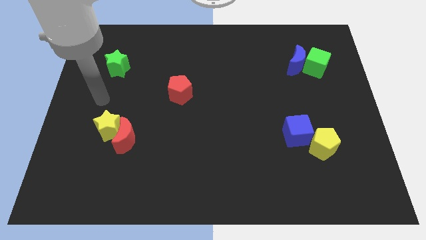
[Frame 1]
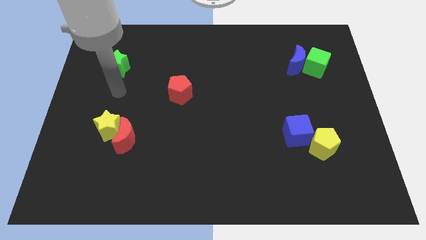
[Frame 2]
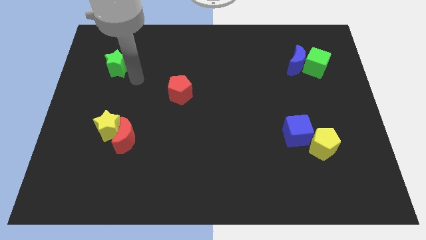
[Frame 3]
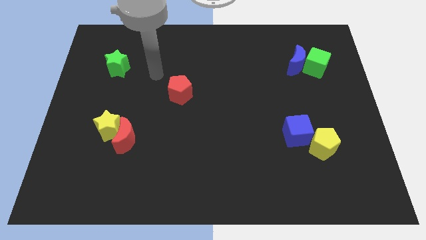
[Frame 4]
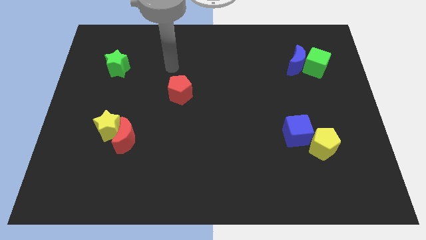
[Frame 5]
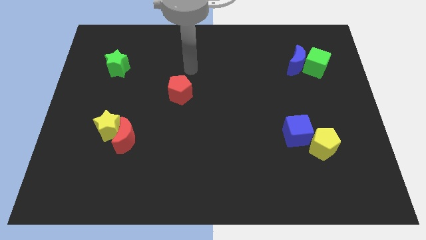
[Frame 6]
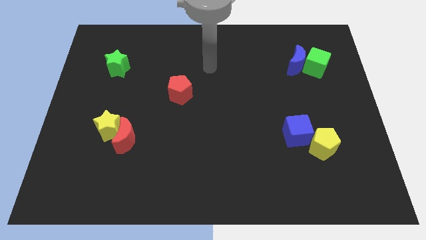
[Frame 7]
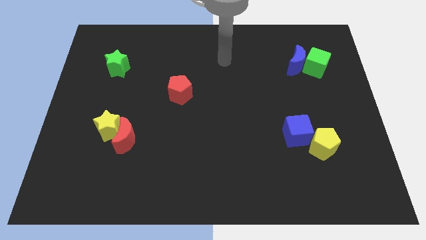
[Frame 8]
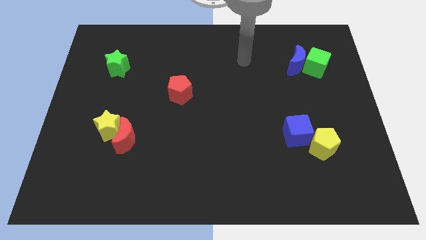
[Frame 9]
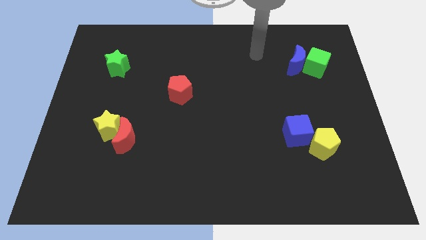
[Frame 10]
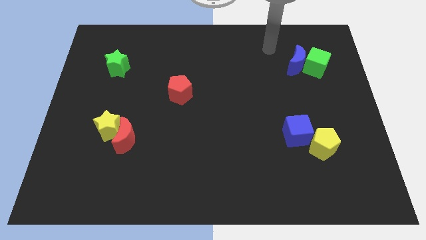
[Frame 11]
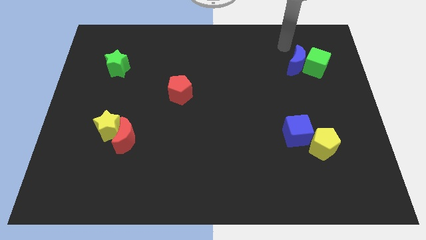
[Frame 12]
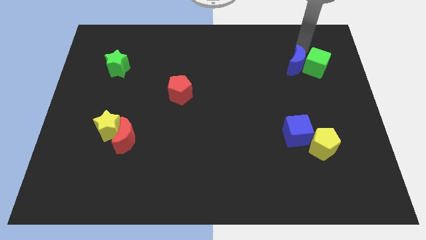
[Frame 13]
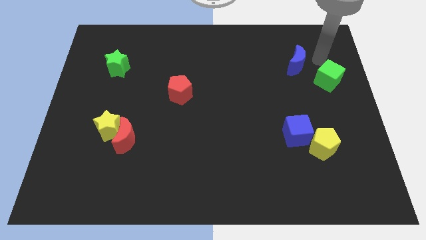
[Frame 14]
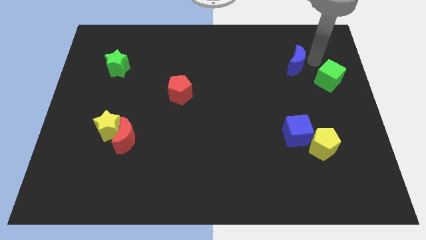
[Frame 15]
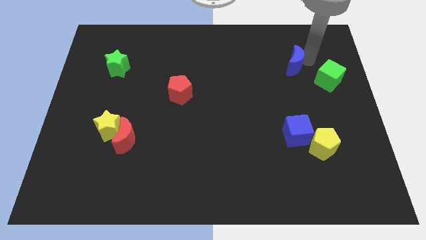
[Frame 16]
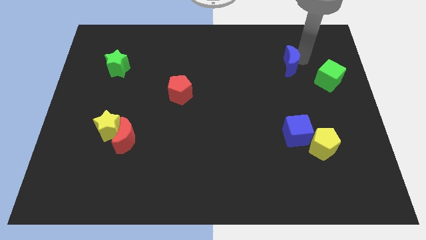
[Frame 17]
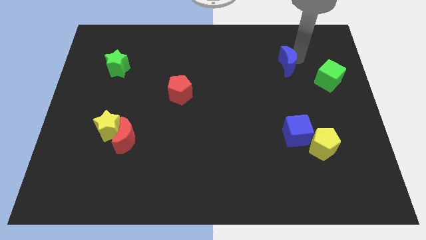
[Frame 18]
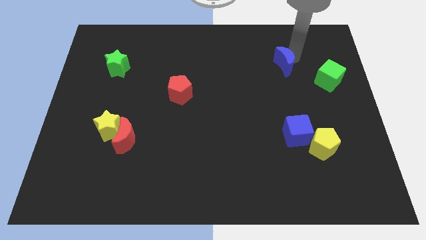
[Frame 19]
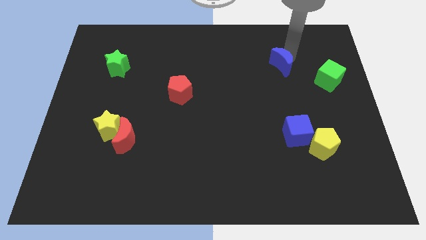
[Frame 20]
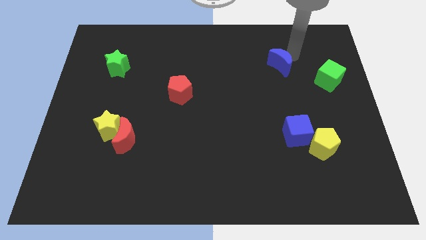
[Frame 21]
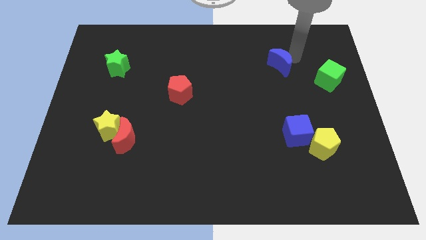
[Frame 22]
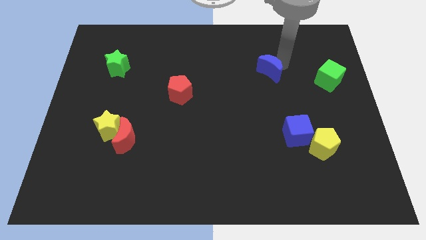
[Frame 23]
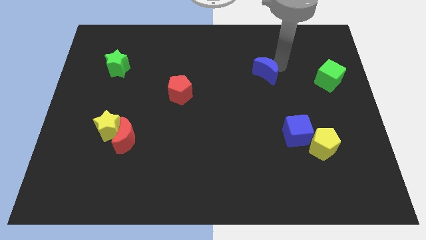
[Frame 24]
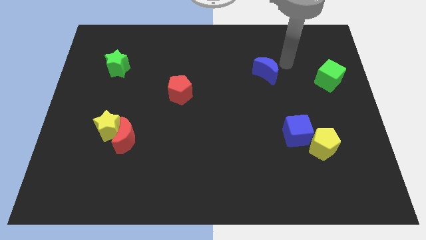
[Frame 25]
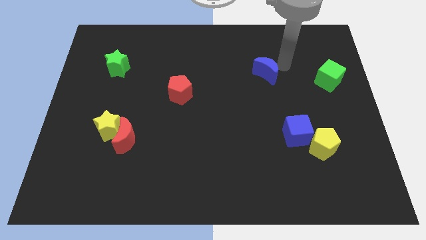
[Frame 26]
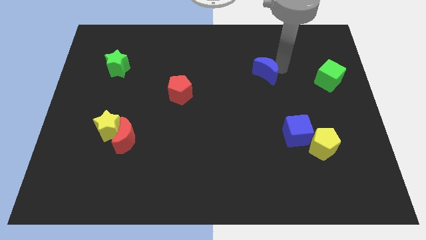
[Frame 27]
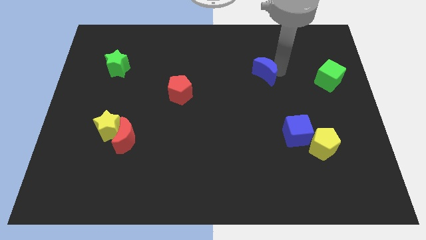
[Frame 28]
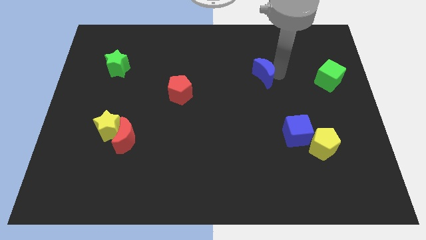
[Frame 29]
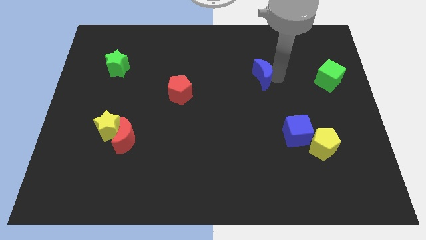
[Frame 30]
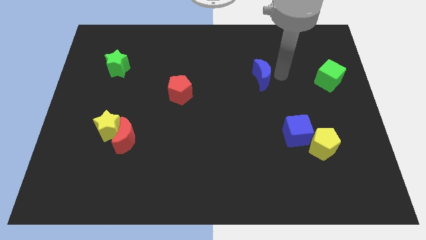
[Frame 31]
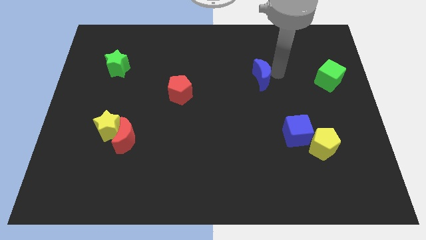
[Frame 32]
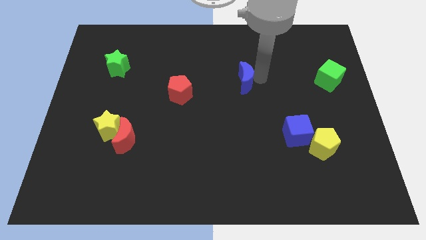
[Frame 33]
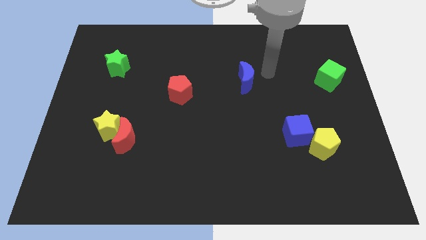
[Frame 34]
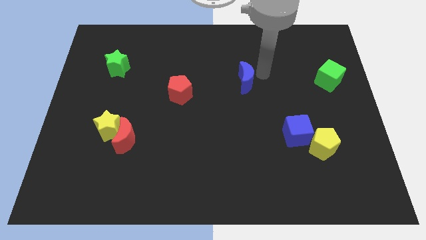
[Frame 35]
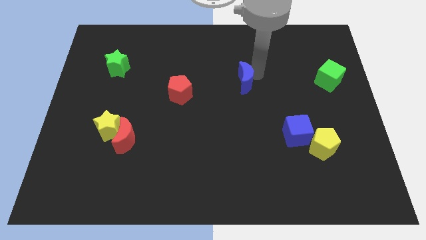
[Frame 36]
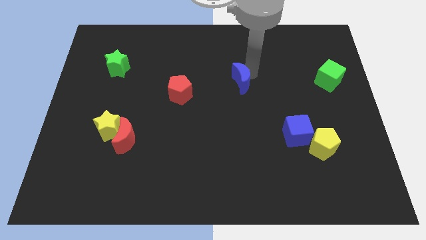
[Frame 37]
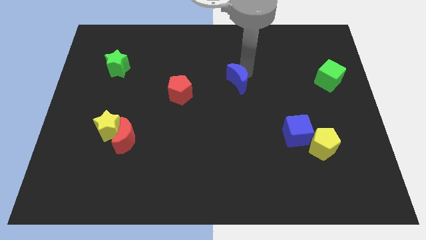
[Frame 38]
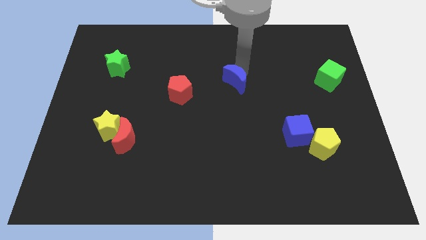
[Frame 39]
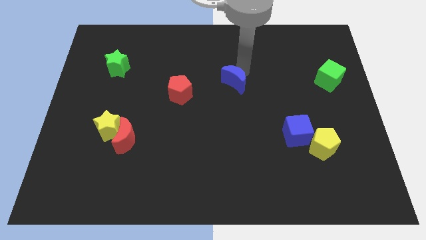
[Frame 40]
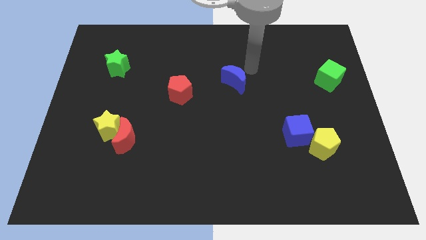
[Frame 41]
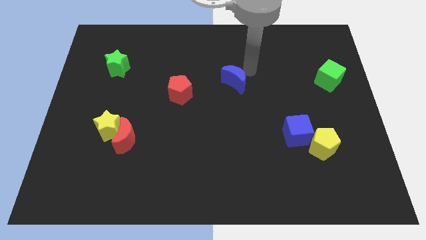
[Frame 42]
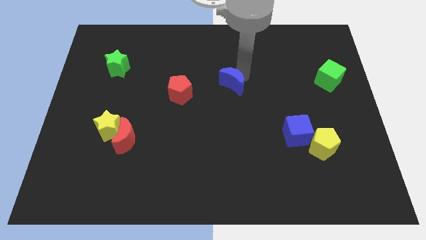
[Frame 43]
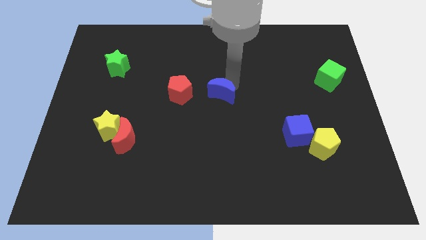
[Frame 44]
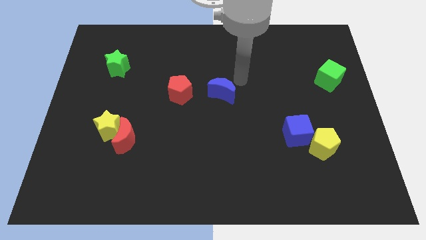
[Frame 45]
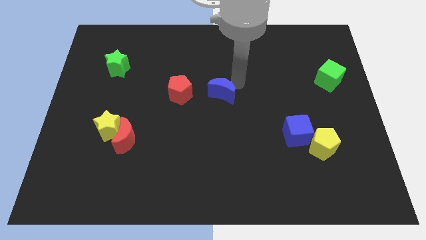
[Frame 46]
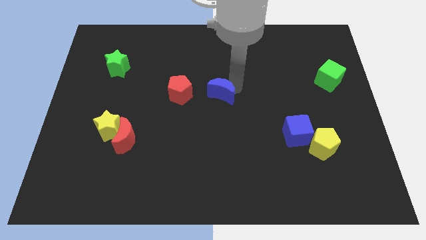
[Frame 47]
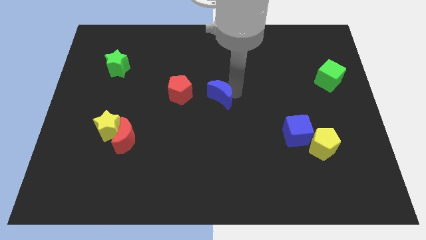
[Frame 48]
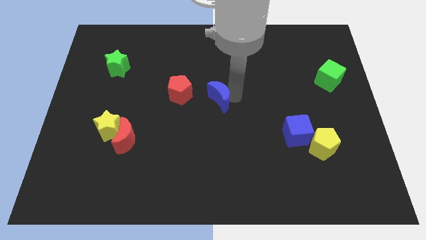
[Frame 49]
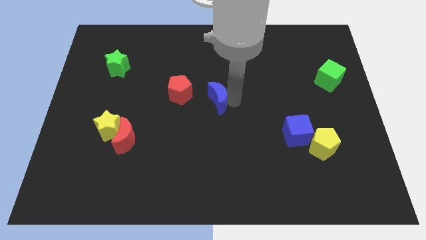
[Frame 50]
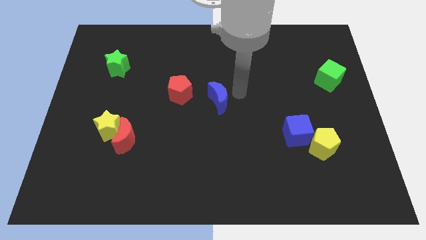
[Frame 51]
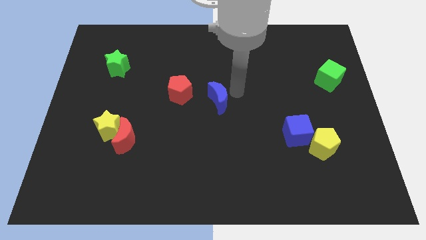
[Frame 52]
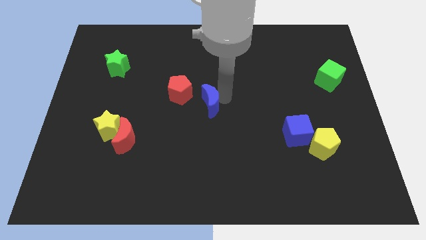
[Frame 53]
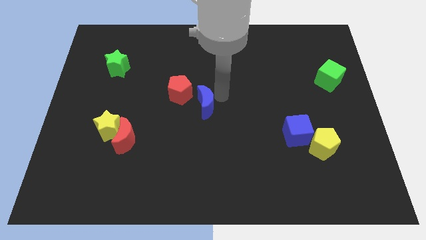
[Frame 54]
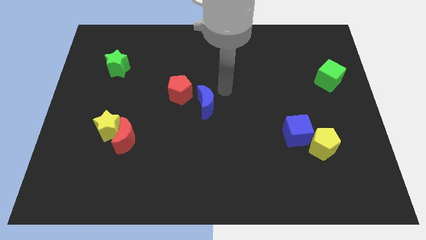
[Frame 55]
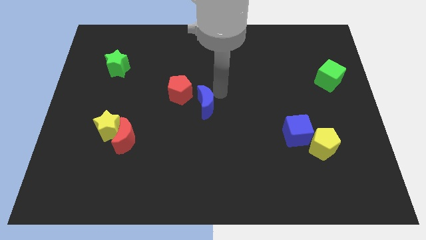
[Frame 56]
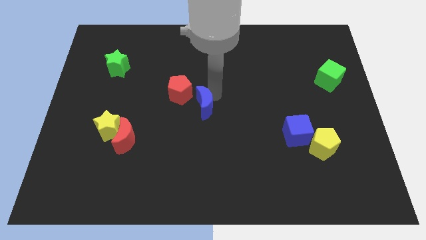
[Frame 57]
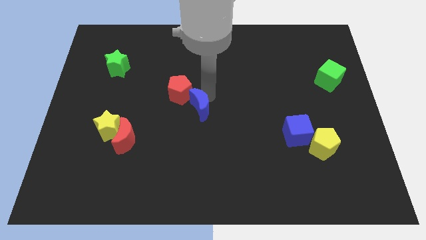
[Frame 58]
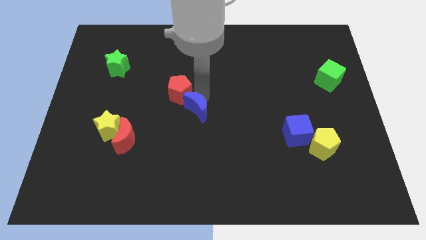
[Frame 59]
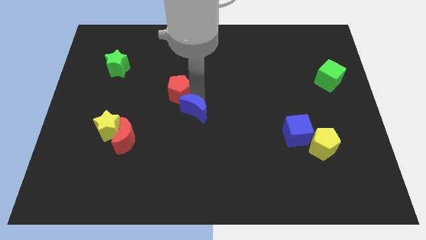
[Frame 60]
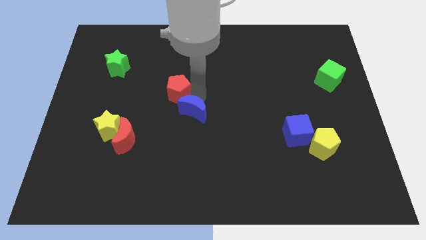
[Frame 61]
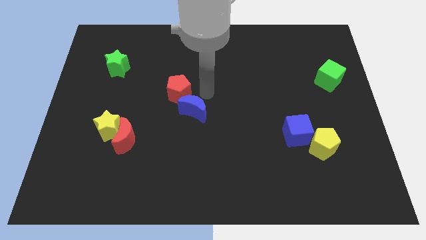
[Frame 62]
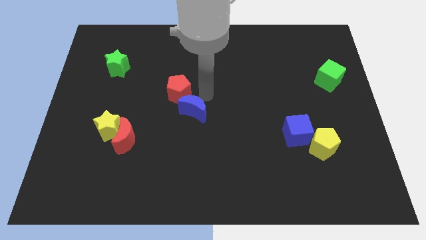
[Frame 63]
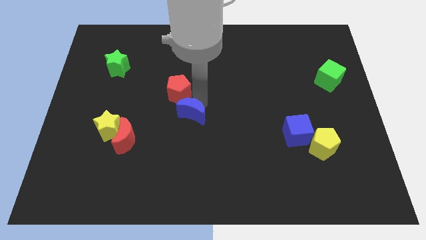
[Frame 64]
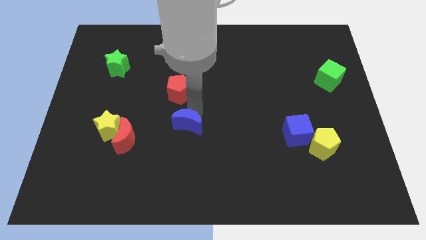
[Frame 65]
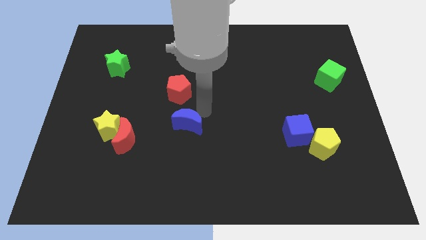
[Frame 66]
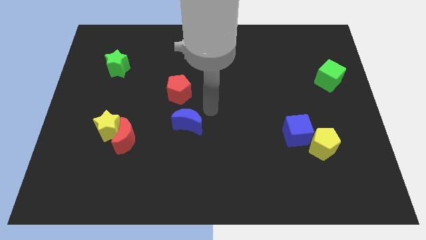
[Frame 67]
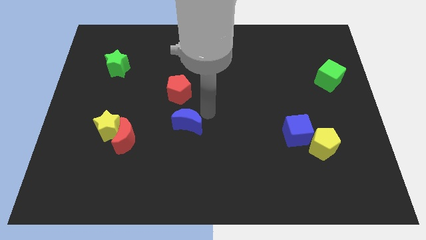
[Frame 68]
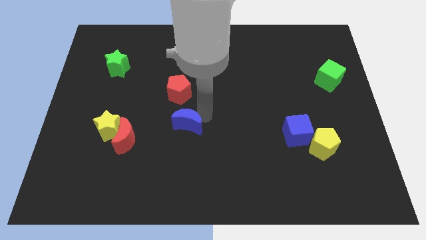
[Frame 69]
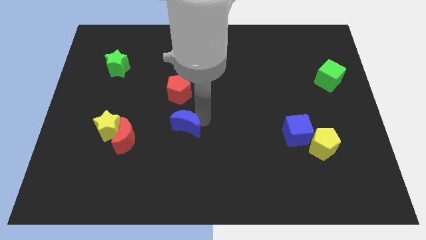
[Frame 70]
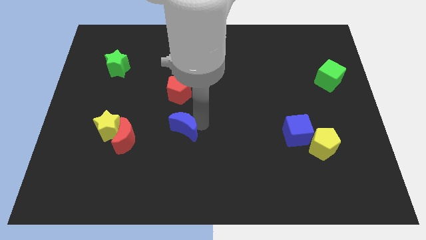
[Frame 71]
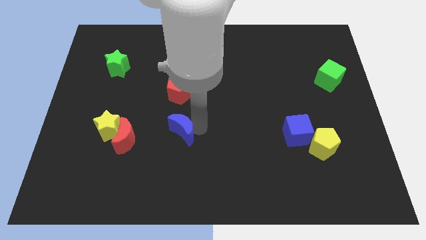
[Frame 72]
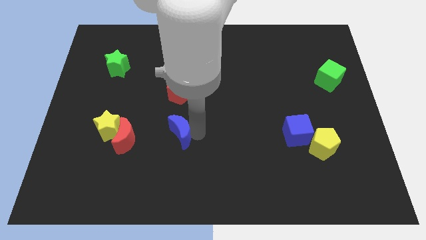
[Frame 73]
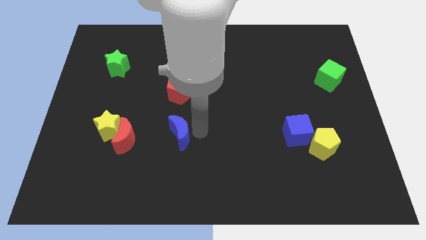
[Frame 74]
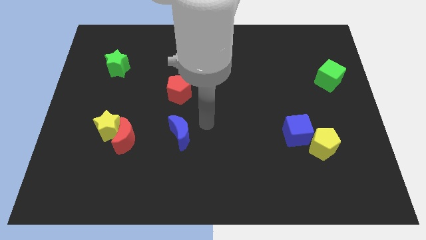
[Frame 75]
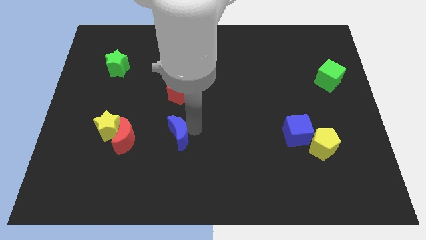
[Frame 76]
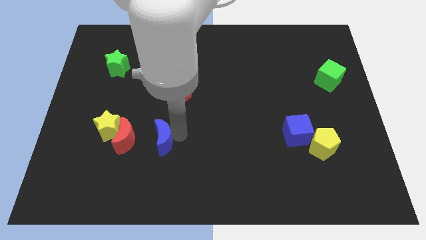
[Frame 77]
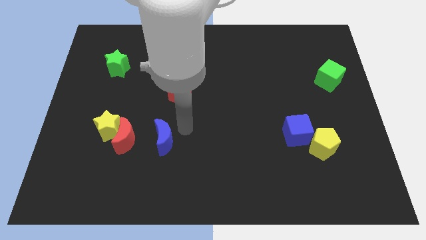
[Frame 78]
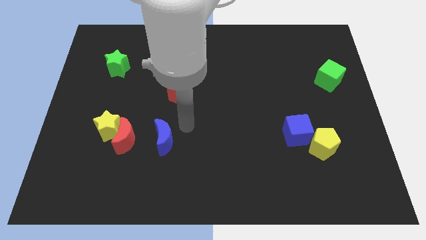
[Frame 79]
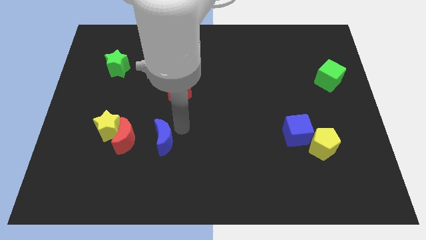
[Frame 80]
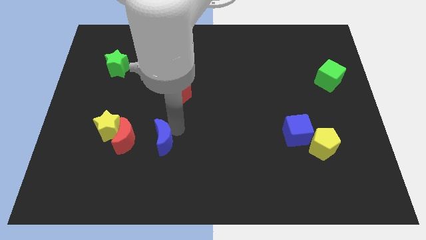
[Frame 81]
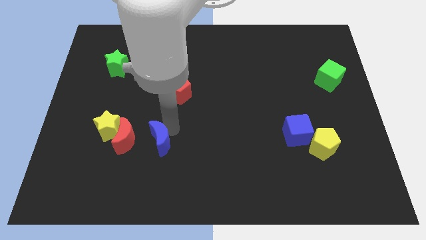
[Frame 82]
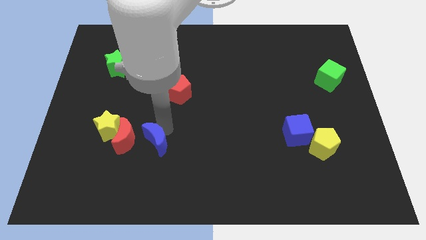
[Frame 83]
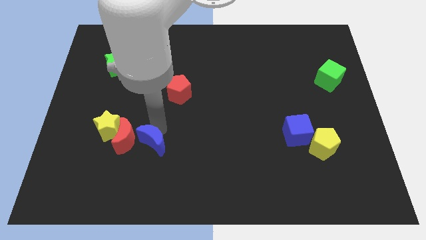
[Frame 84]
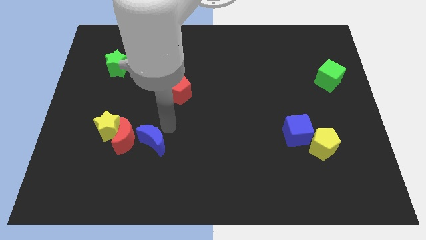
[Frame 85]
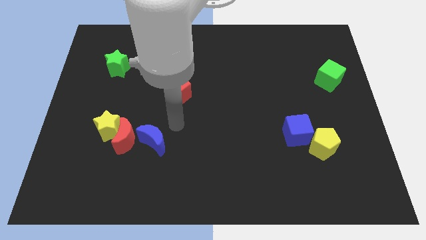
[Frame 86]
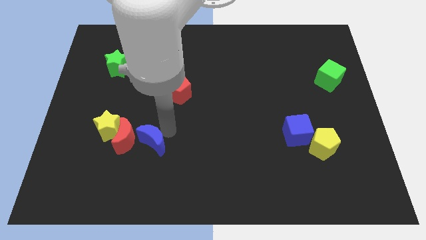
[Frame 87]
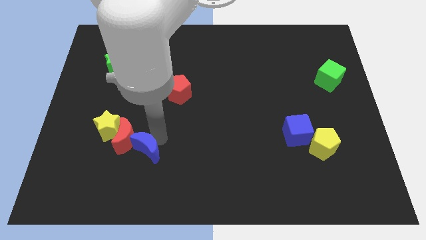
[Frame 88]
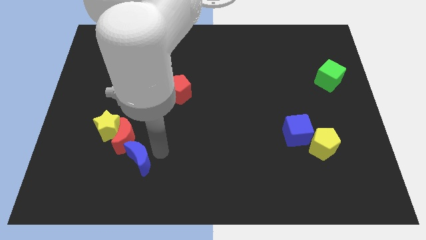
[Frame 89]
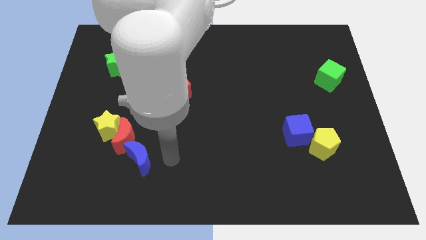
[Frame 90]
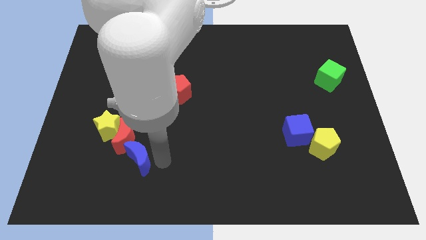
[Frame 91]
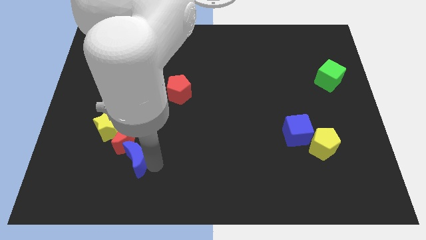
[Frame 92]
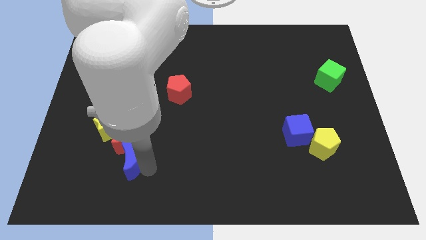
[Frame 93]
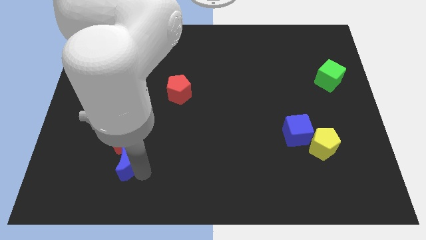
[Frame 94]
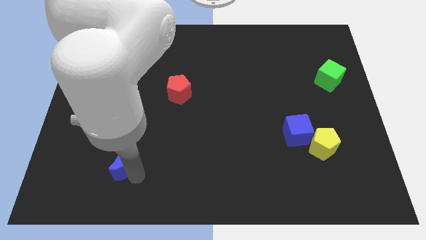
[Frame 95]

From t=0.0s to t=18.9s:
slide the blue moon to the bottom left side of the red moon
